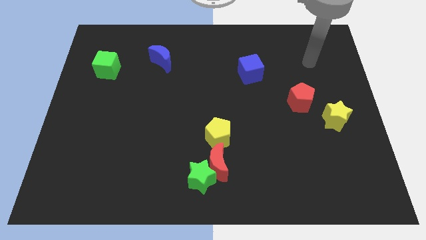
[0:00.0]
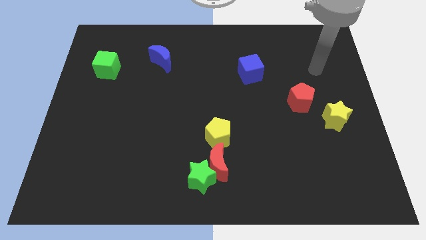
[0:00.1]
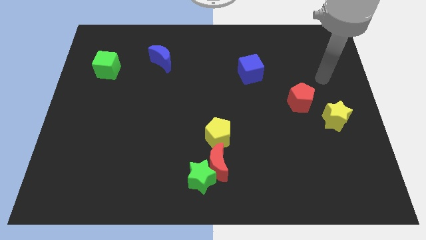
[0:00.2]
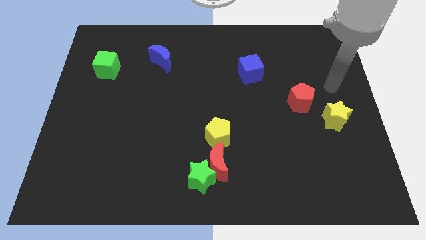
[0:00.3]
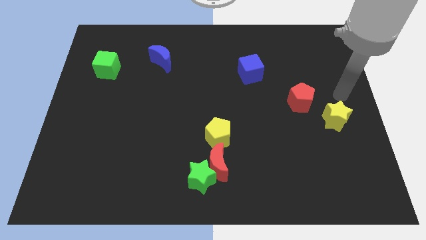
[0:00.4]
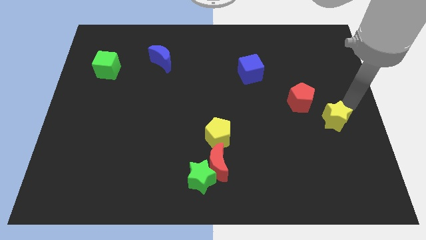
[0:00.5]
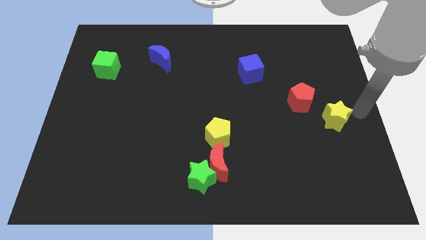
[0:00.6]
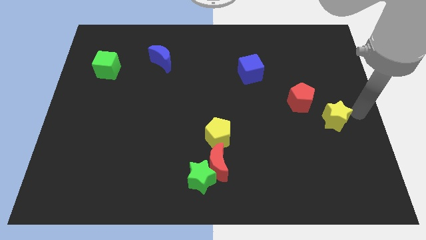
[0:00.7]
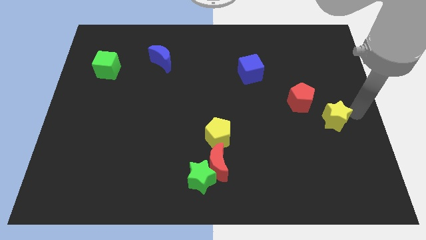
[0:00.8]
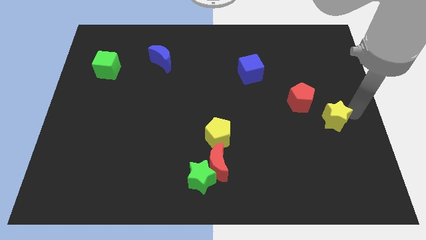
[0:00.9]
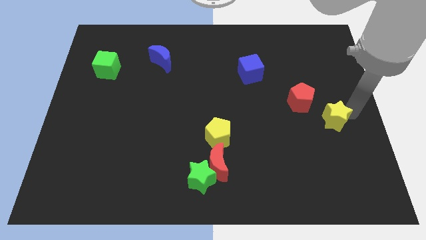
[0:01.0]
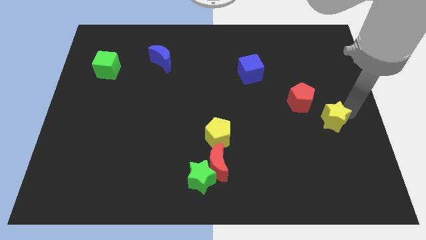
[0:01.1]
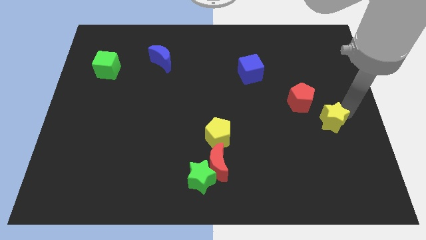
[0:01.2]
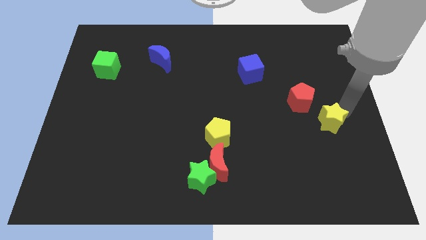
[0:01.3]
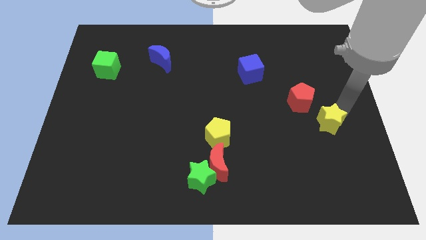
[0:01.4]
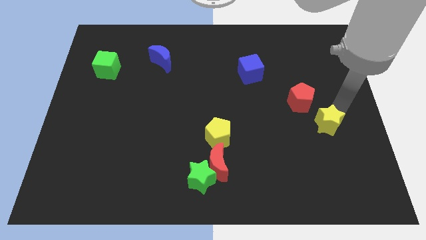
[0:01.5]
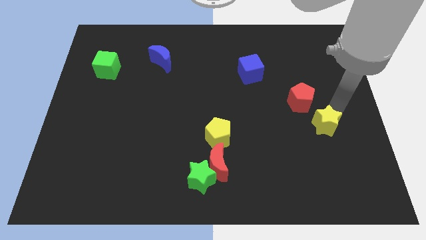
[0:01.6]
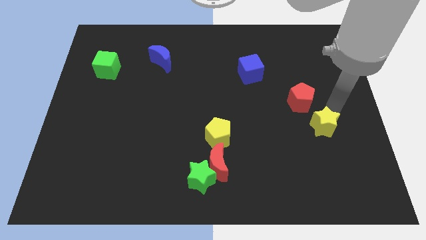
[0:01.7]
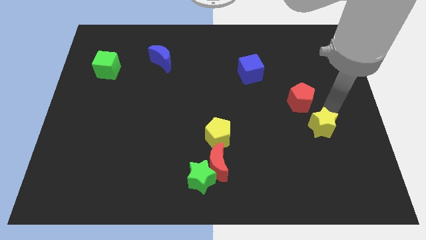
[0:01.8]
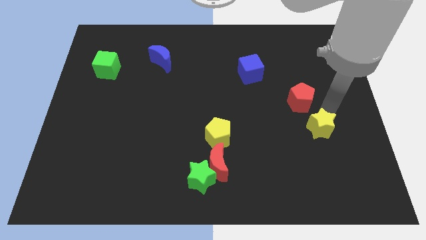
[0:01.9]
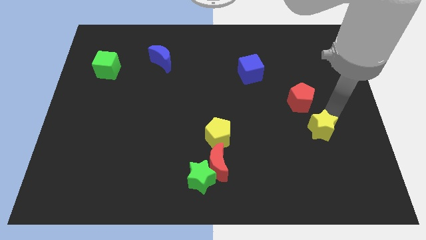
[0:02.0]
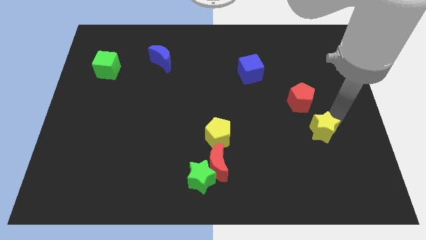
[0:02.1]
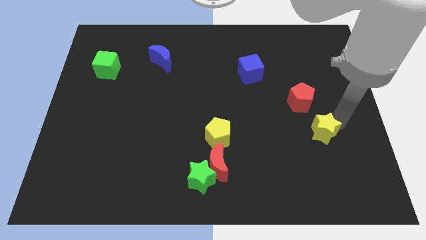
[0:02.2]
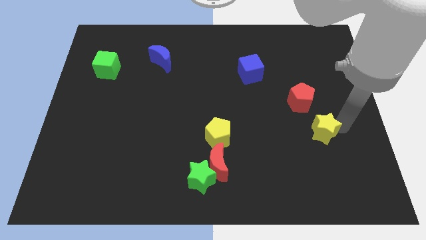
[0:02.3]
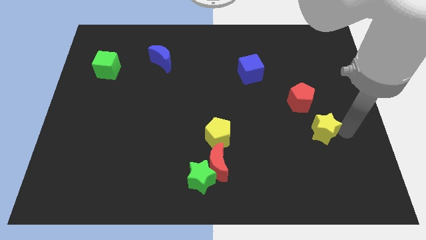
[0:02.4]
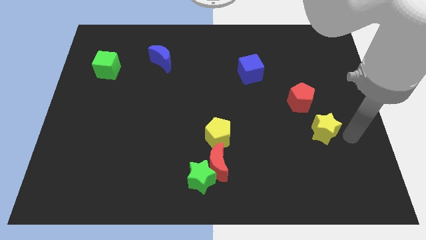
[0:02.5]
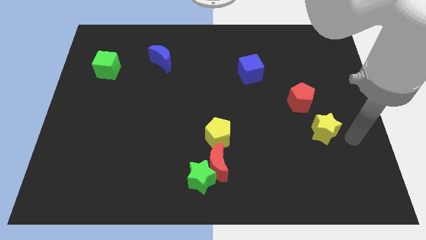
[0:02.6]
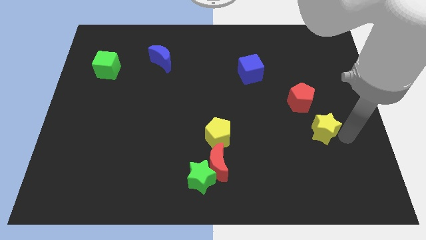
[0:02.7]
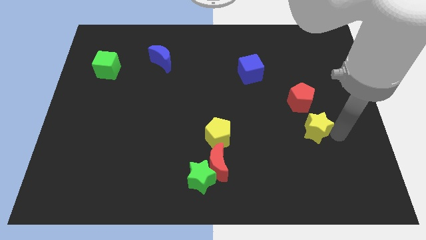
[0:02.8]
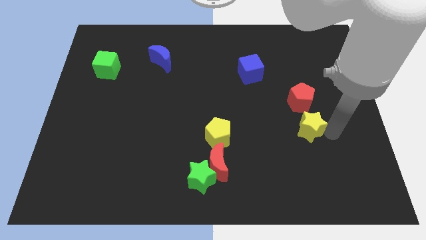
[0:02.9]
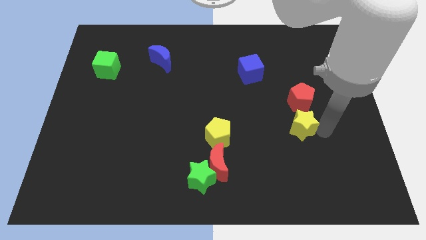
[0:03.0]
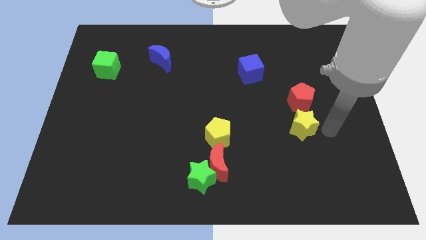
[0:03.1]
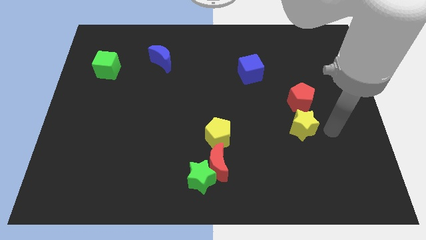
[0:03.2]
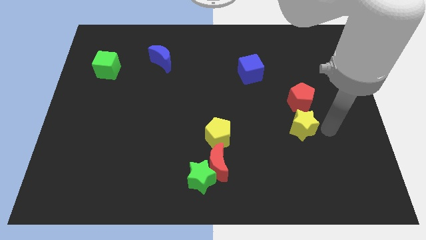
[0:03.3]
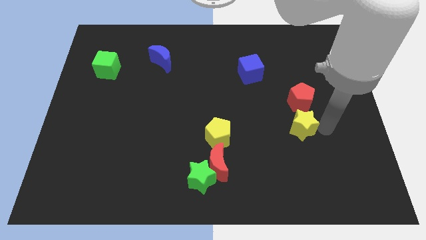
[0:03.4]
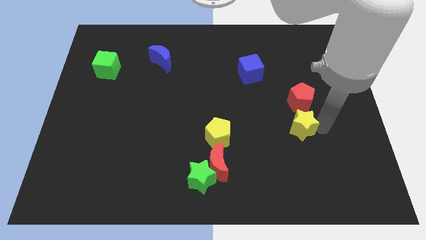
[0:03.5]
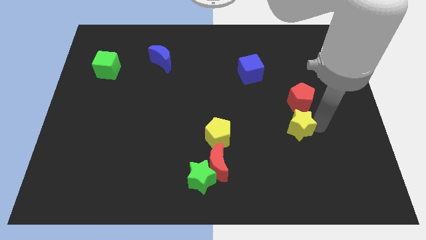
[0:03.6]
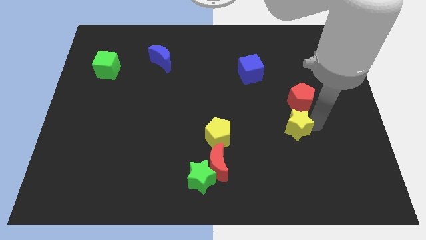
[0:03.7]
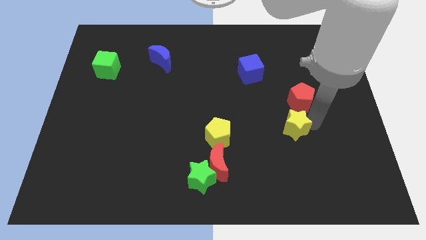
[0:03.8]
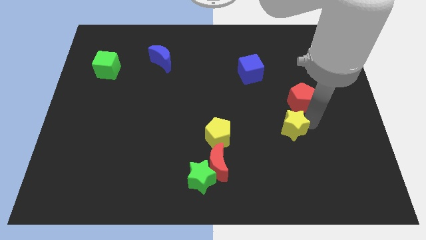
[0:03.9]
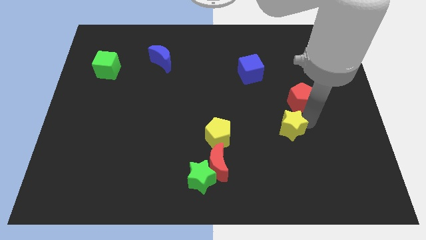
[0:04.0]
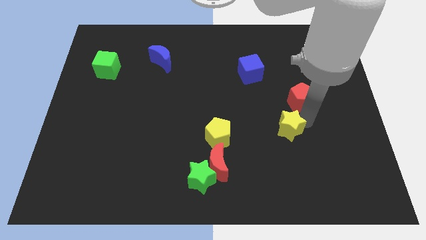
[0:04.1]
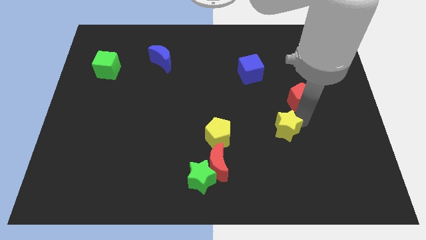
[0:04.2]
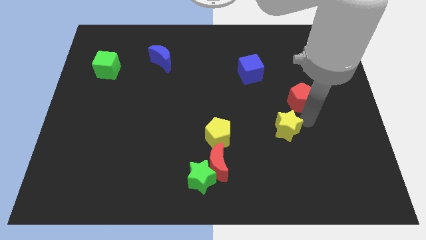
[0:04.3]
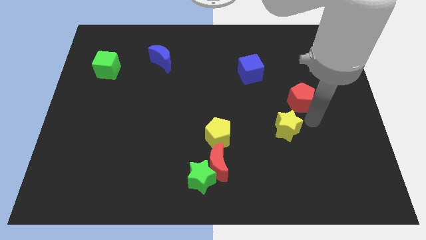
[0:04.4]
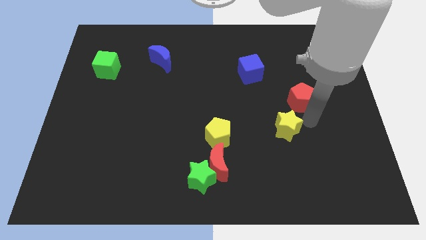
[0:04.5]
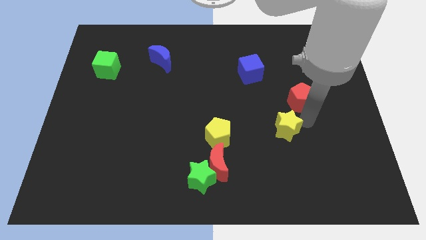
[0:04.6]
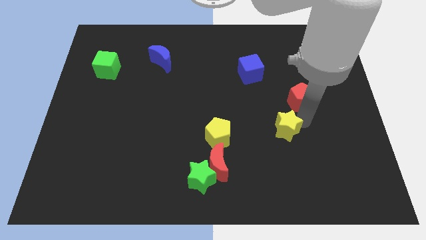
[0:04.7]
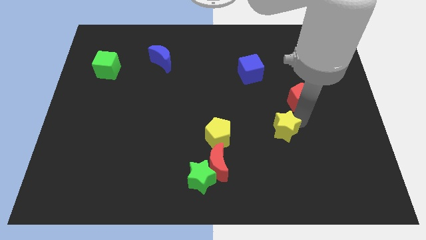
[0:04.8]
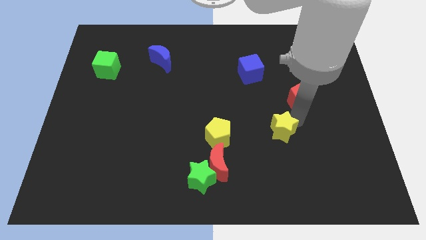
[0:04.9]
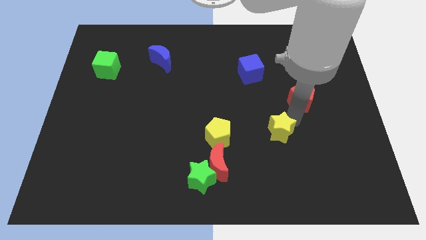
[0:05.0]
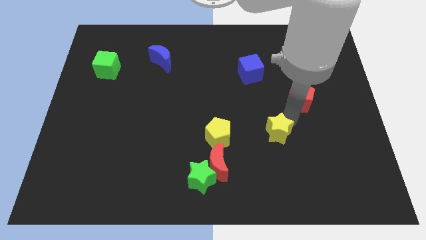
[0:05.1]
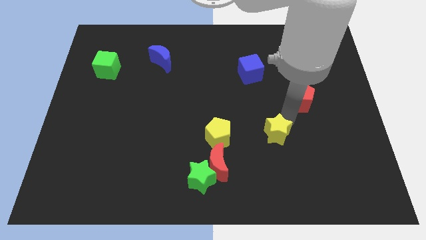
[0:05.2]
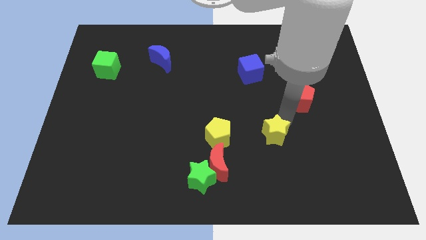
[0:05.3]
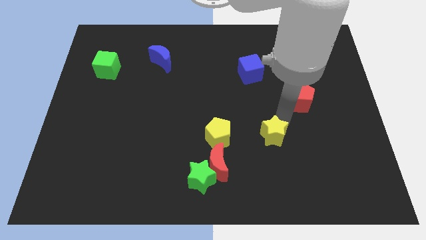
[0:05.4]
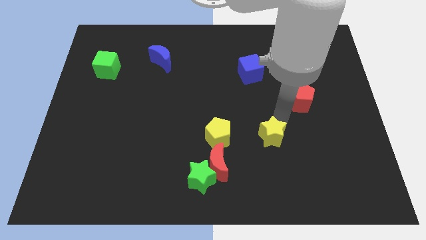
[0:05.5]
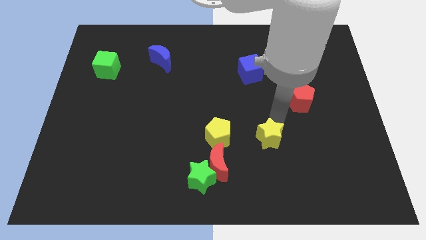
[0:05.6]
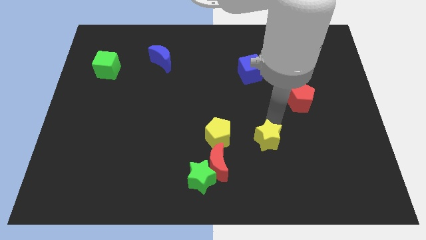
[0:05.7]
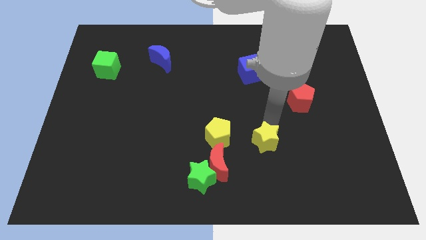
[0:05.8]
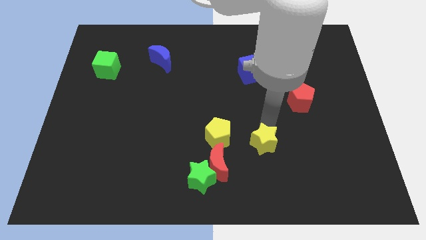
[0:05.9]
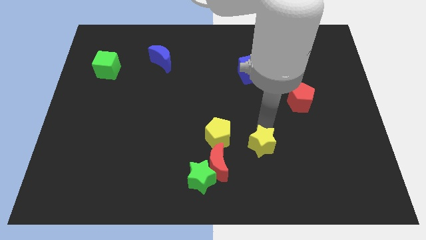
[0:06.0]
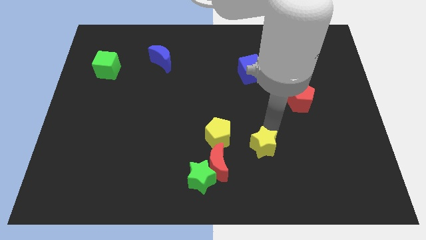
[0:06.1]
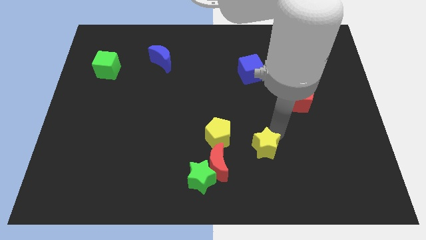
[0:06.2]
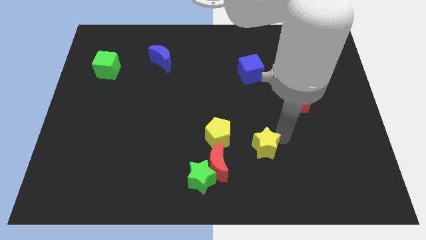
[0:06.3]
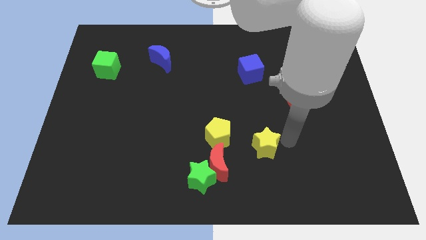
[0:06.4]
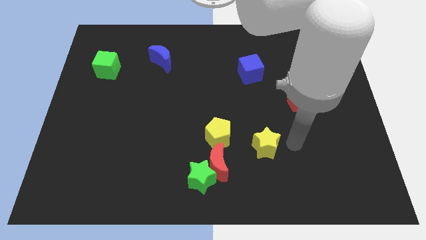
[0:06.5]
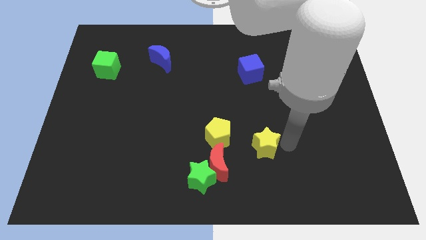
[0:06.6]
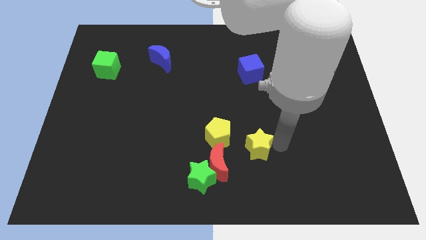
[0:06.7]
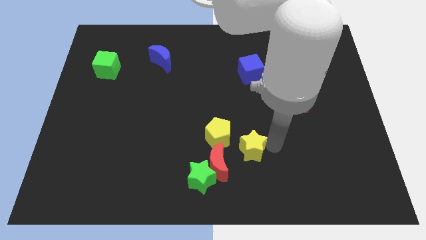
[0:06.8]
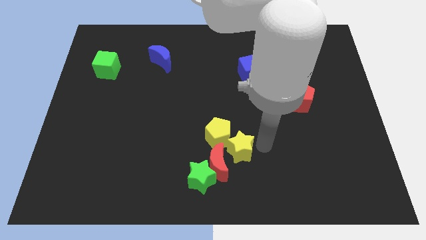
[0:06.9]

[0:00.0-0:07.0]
put the yellow star close to the red moon
